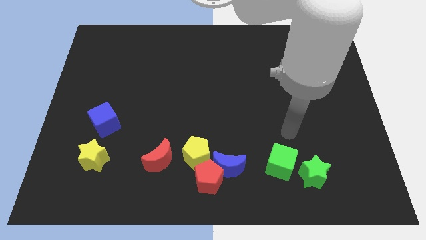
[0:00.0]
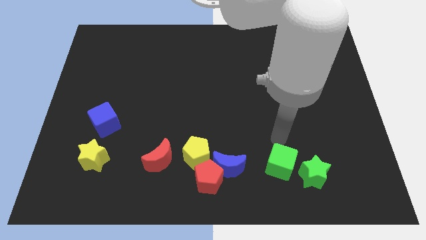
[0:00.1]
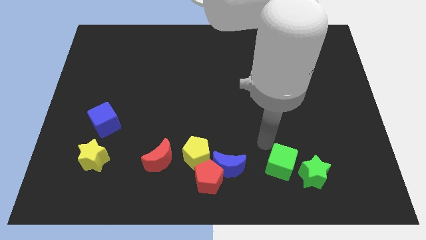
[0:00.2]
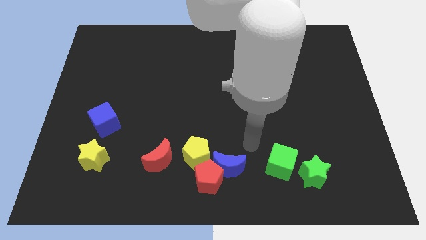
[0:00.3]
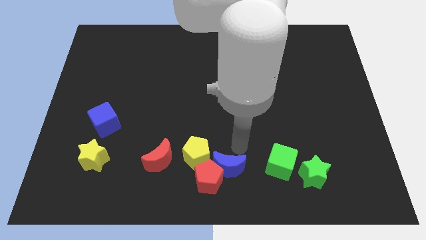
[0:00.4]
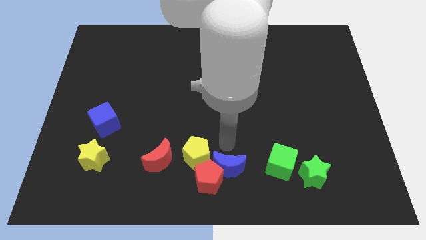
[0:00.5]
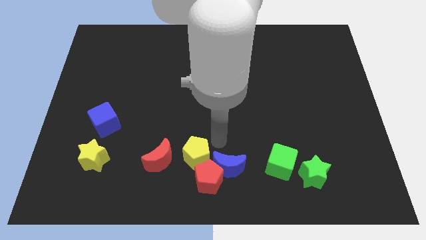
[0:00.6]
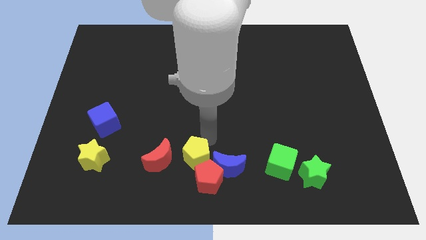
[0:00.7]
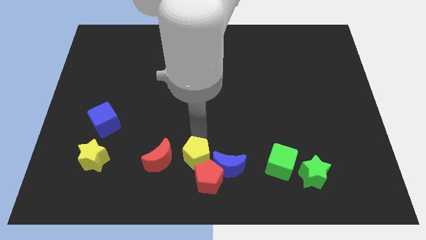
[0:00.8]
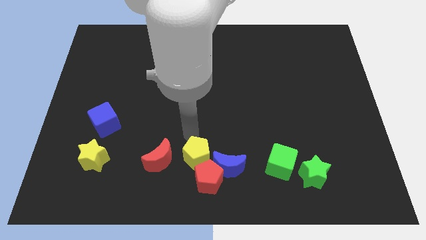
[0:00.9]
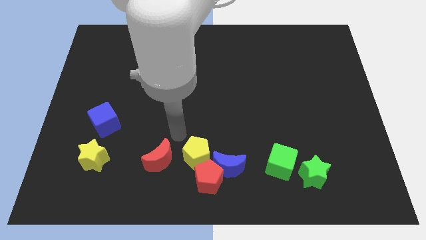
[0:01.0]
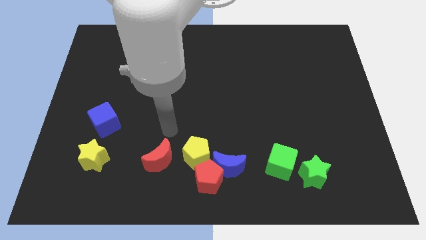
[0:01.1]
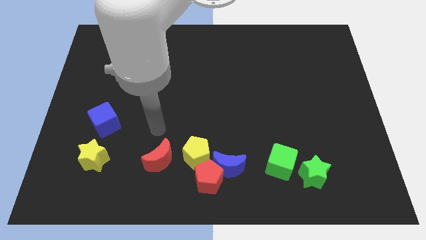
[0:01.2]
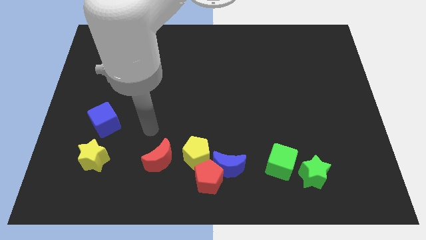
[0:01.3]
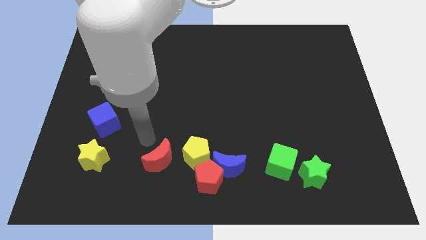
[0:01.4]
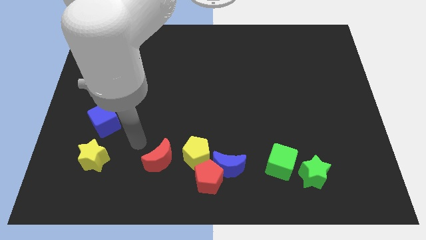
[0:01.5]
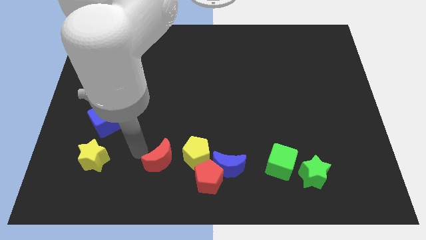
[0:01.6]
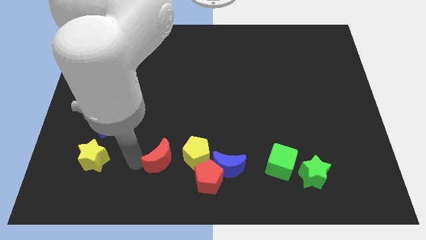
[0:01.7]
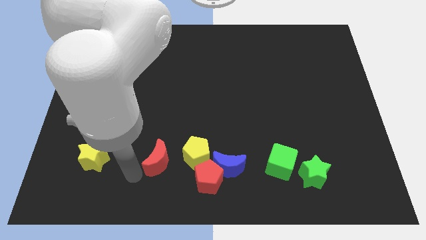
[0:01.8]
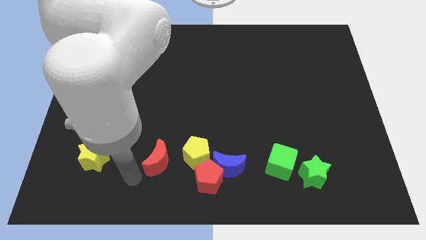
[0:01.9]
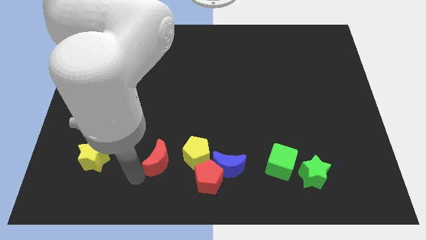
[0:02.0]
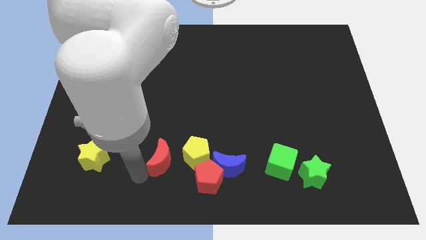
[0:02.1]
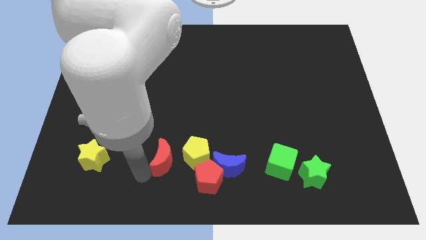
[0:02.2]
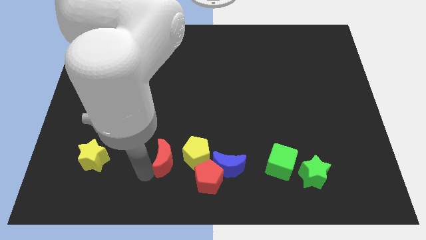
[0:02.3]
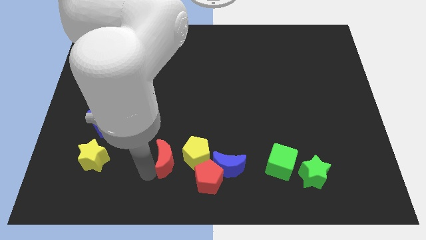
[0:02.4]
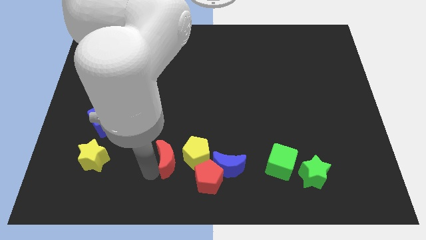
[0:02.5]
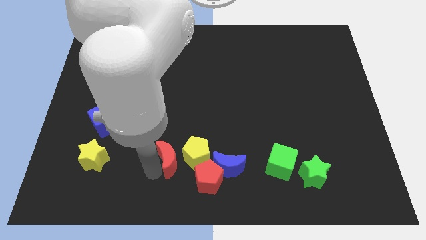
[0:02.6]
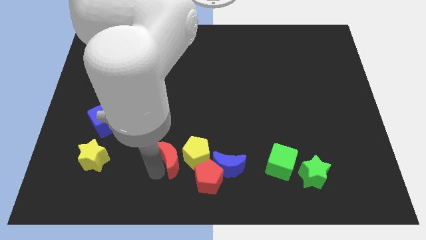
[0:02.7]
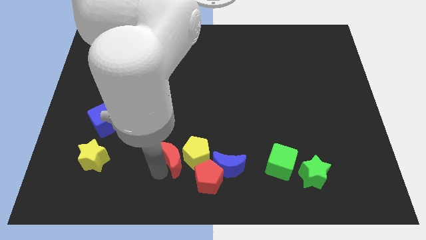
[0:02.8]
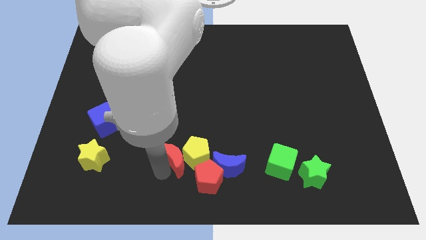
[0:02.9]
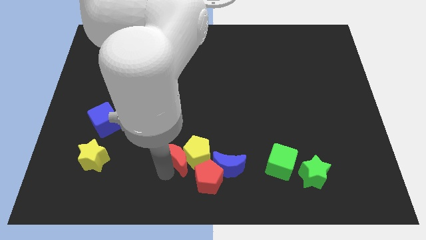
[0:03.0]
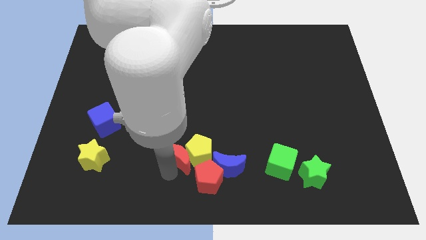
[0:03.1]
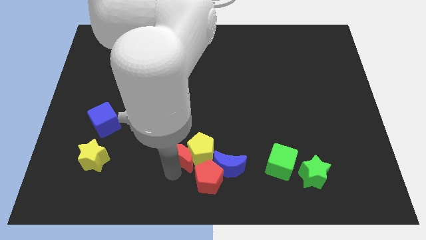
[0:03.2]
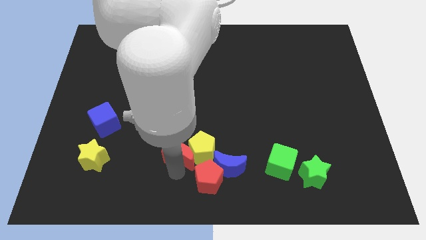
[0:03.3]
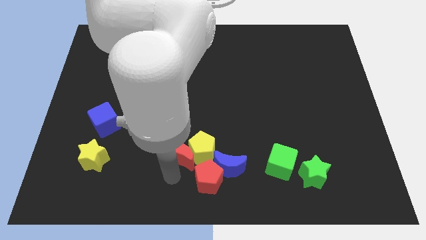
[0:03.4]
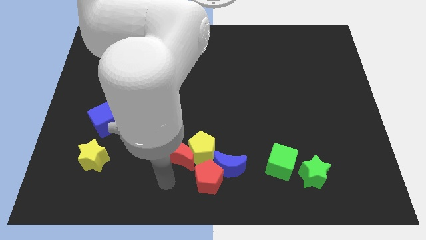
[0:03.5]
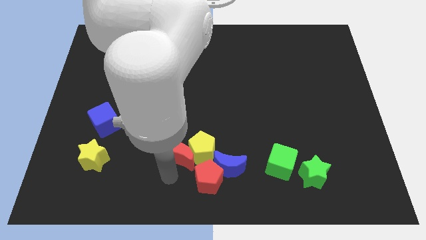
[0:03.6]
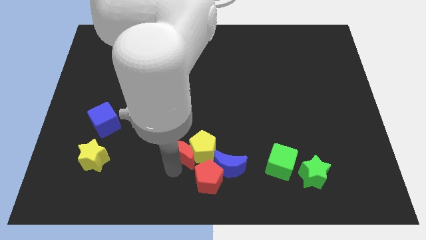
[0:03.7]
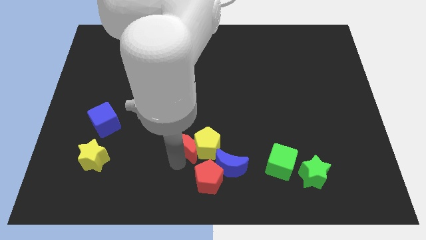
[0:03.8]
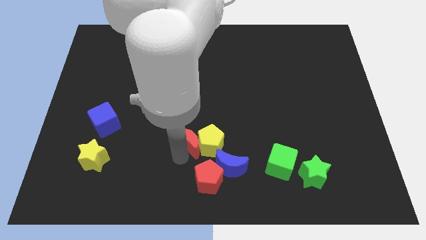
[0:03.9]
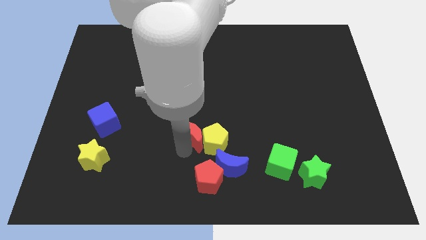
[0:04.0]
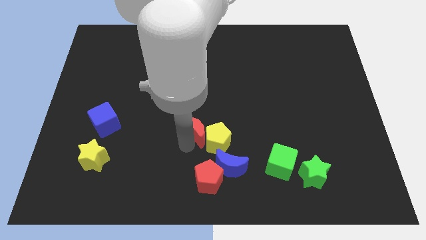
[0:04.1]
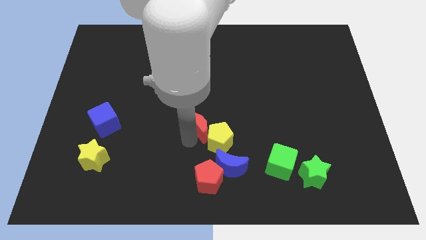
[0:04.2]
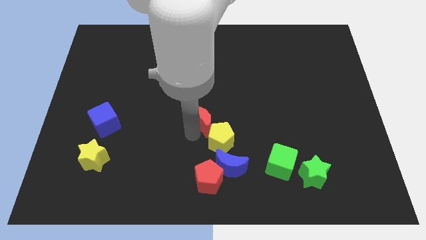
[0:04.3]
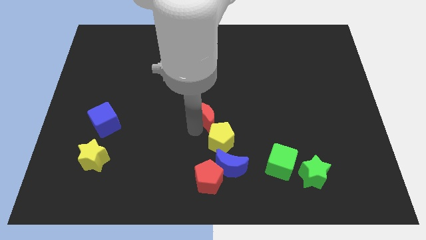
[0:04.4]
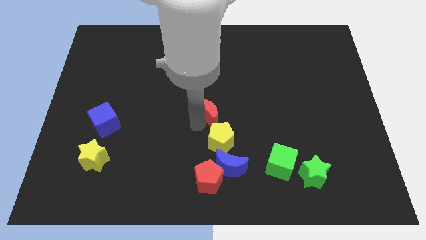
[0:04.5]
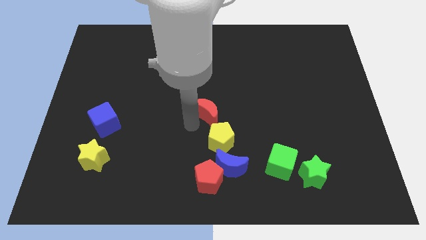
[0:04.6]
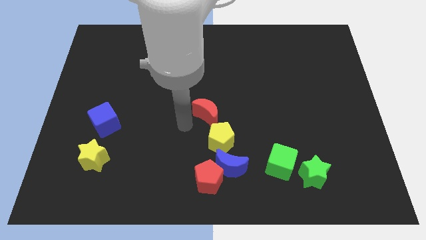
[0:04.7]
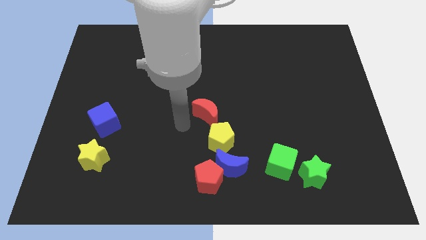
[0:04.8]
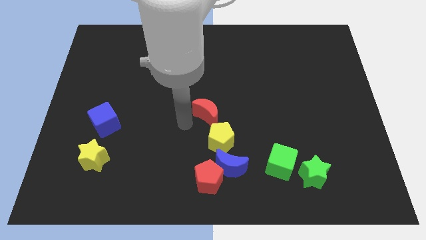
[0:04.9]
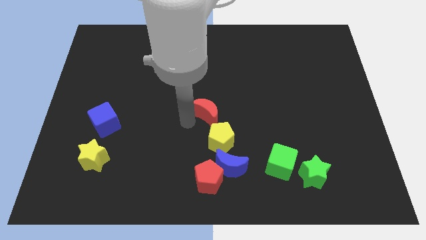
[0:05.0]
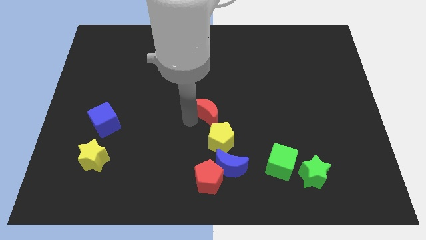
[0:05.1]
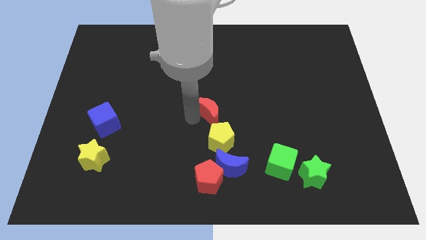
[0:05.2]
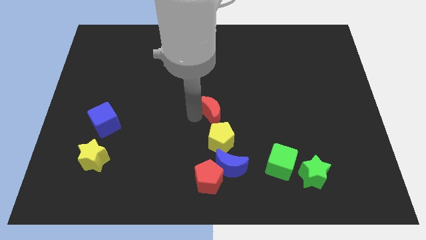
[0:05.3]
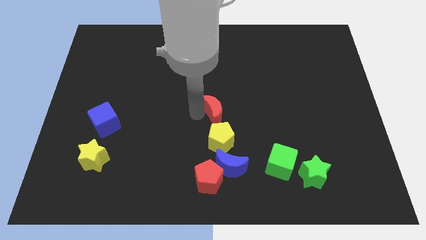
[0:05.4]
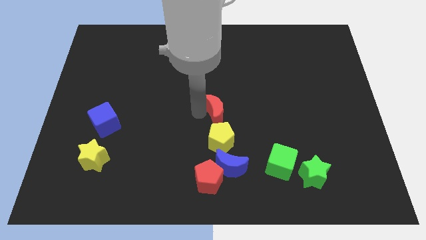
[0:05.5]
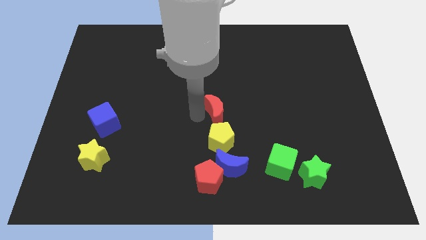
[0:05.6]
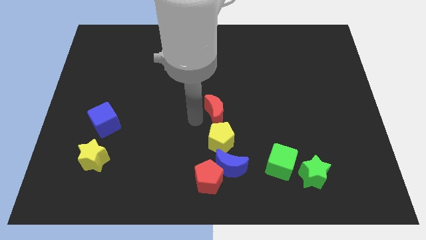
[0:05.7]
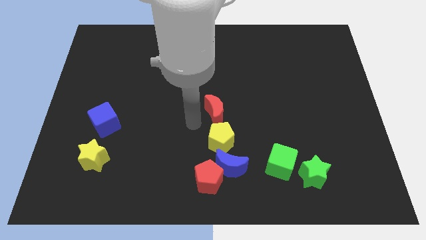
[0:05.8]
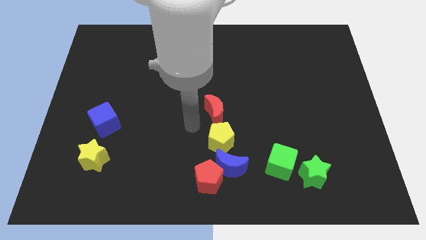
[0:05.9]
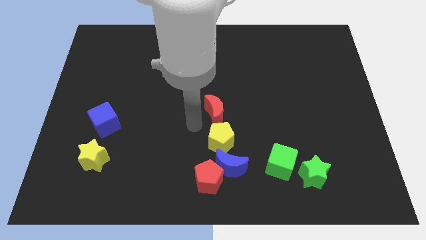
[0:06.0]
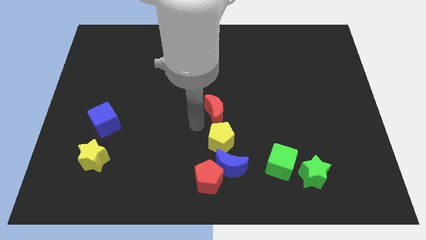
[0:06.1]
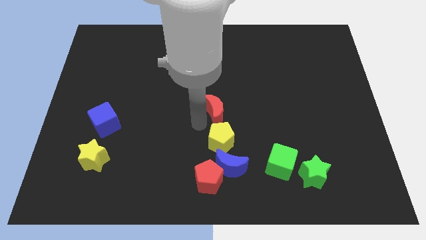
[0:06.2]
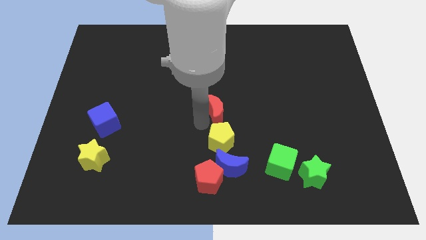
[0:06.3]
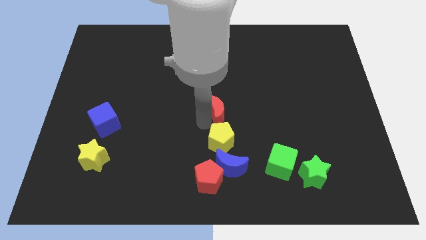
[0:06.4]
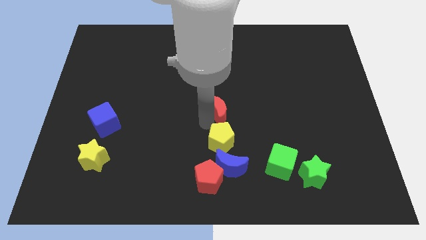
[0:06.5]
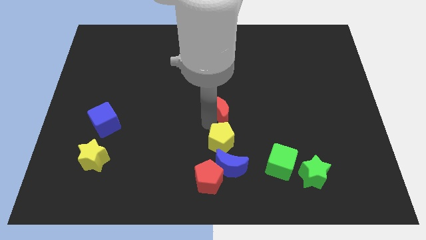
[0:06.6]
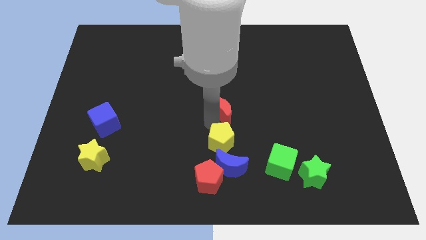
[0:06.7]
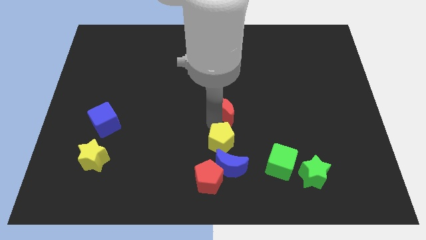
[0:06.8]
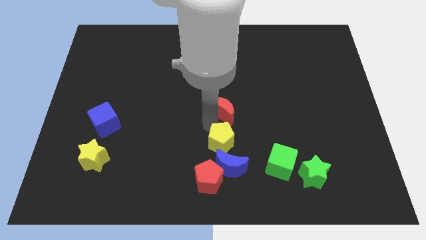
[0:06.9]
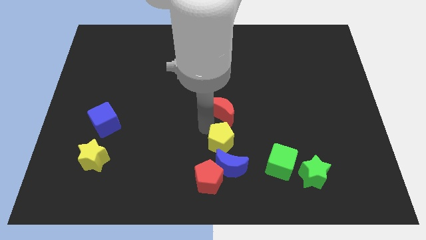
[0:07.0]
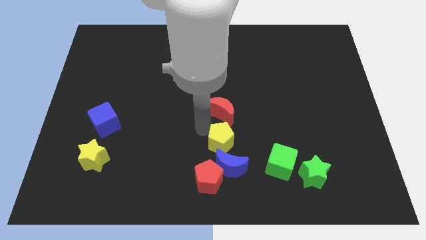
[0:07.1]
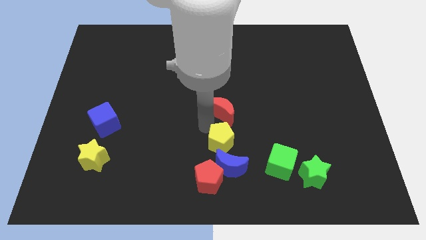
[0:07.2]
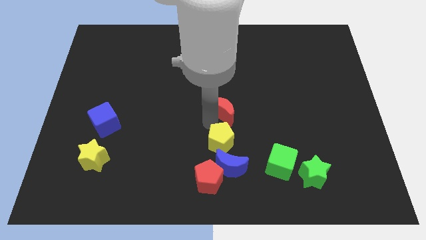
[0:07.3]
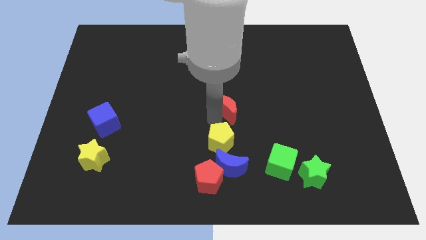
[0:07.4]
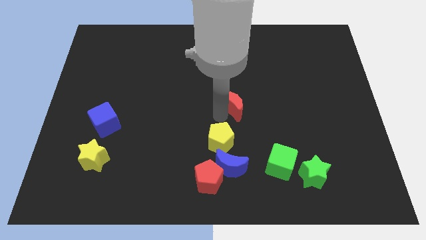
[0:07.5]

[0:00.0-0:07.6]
slide the red moon upwards and right

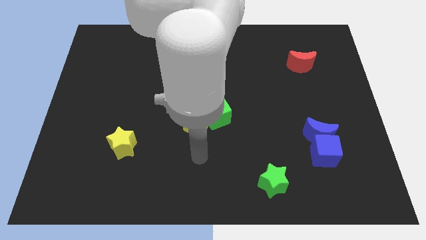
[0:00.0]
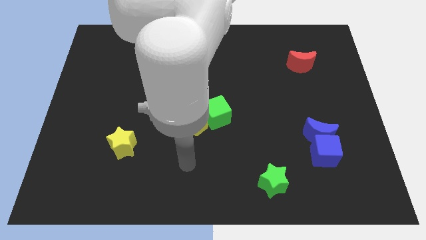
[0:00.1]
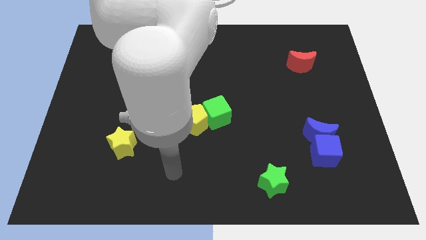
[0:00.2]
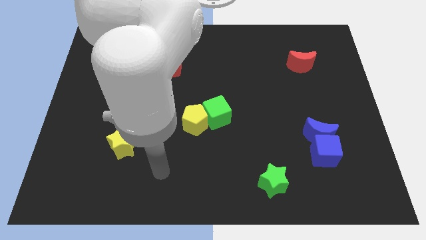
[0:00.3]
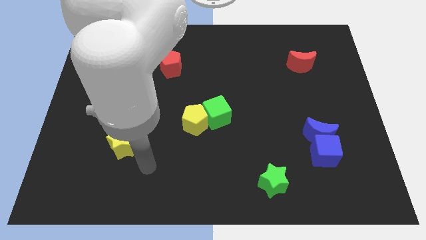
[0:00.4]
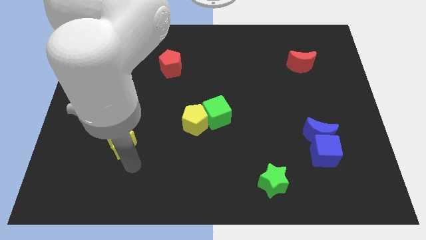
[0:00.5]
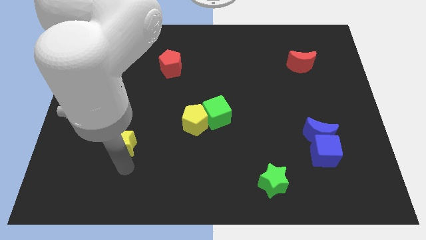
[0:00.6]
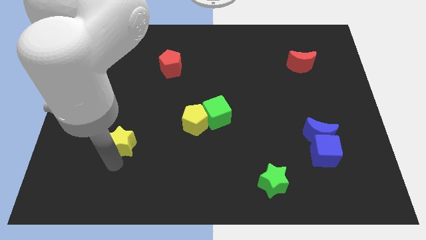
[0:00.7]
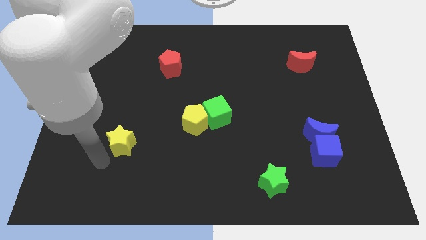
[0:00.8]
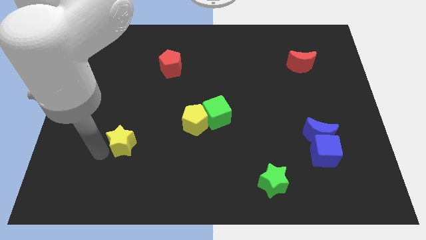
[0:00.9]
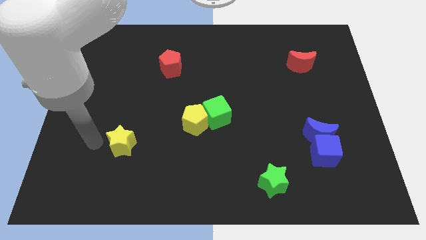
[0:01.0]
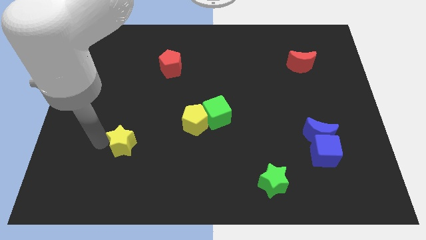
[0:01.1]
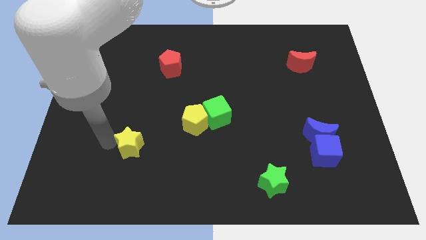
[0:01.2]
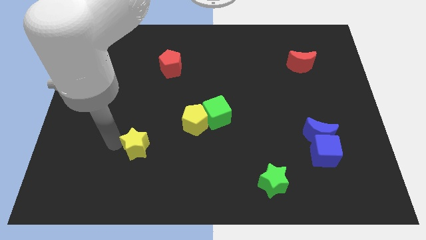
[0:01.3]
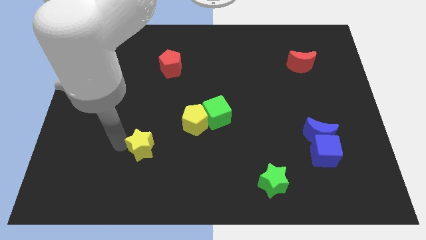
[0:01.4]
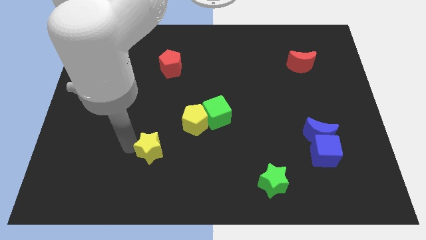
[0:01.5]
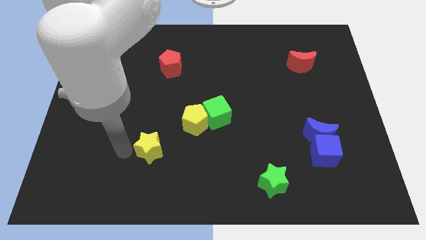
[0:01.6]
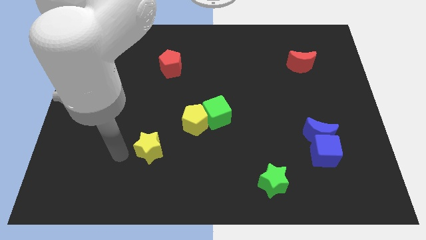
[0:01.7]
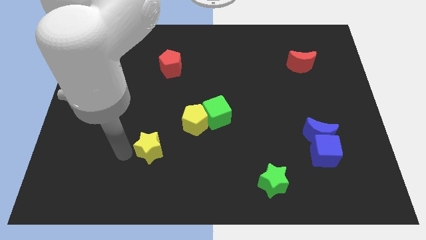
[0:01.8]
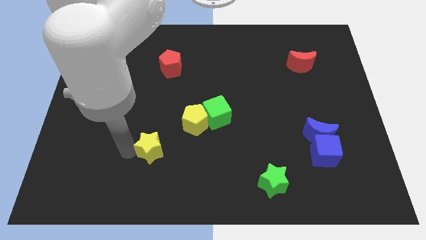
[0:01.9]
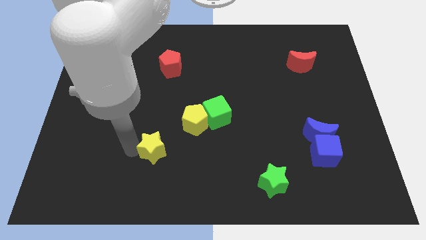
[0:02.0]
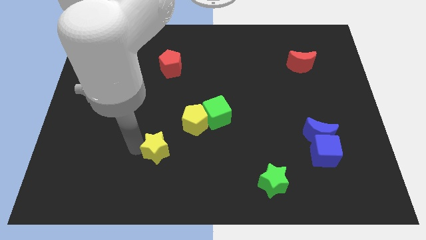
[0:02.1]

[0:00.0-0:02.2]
slightly push the yellow star right
